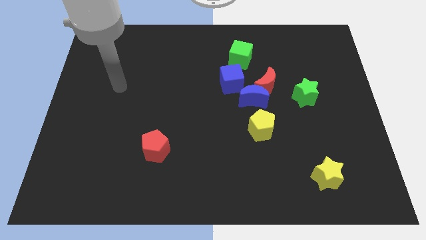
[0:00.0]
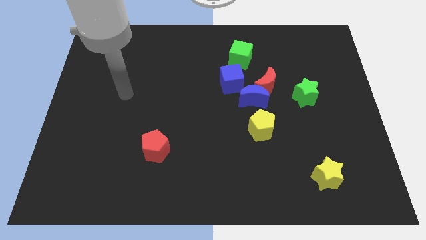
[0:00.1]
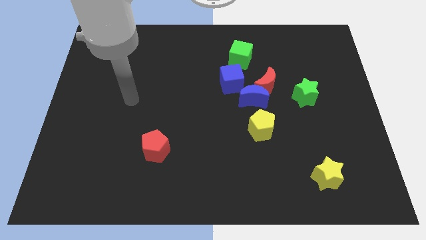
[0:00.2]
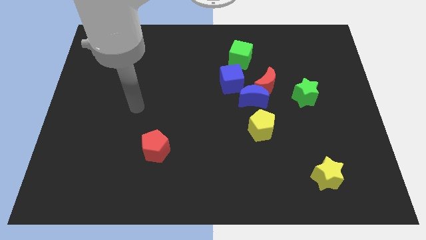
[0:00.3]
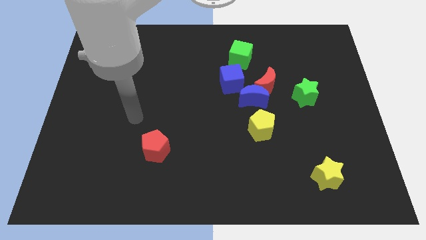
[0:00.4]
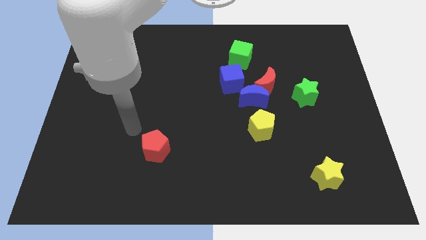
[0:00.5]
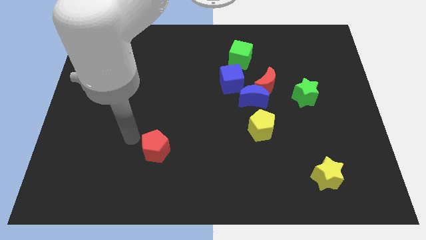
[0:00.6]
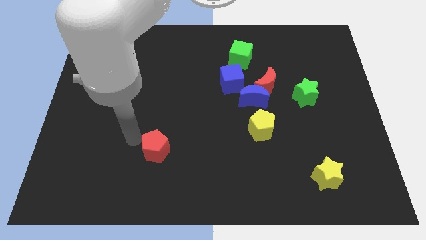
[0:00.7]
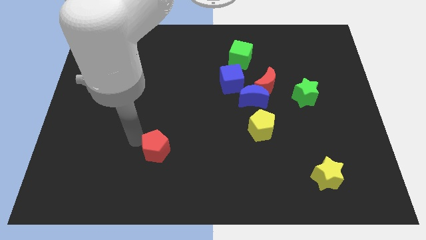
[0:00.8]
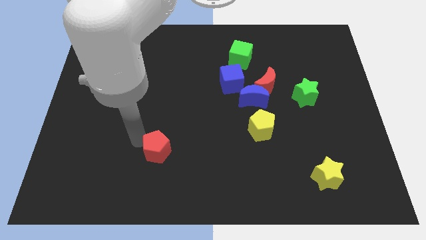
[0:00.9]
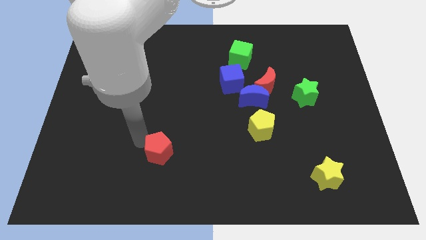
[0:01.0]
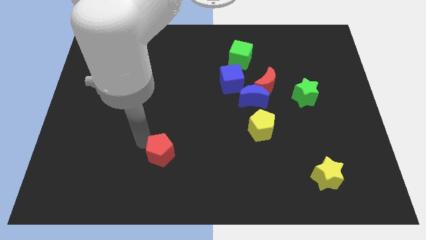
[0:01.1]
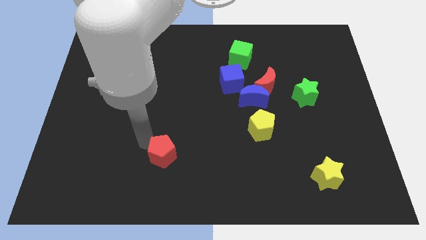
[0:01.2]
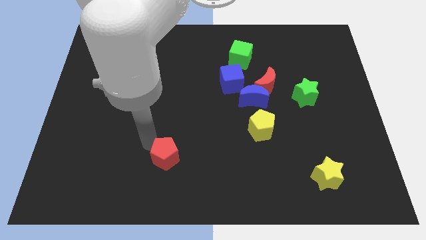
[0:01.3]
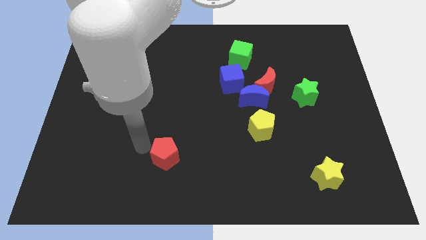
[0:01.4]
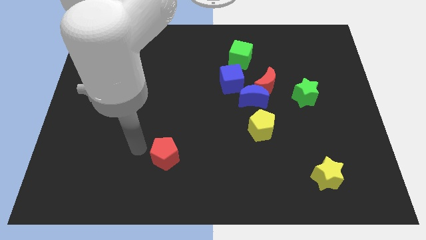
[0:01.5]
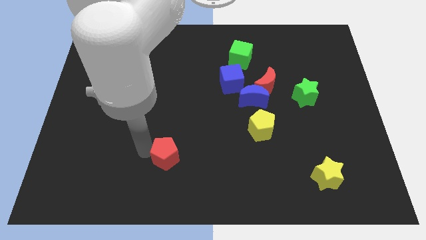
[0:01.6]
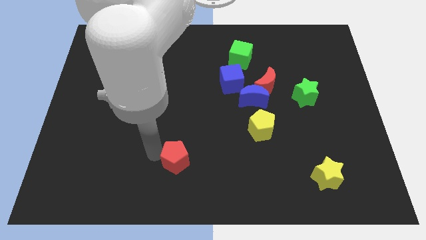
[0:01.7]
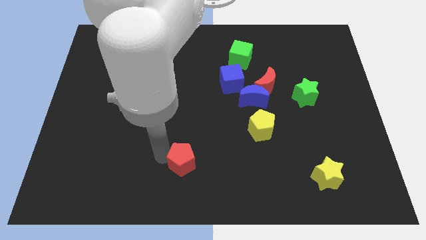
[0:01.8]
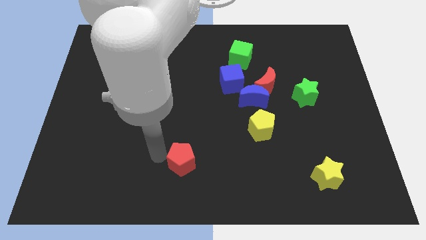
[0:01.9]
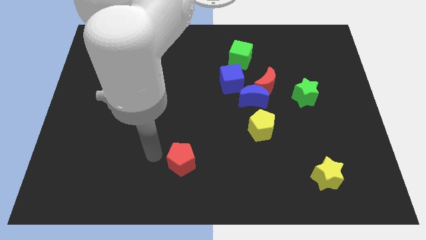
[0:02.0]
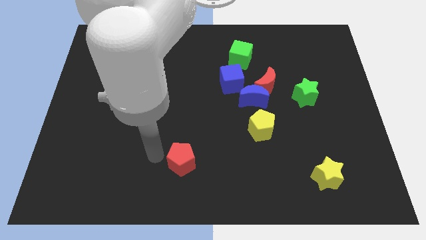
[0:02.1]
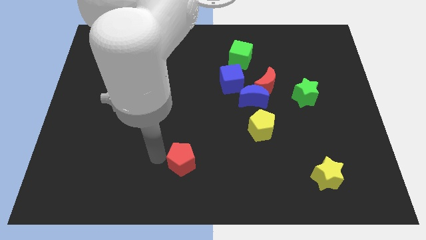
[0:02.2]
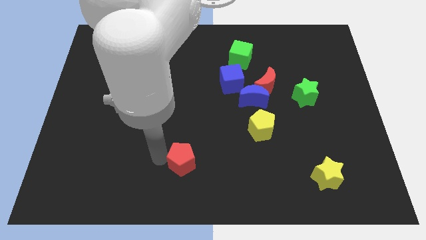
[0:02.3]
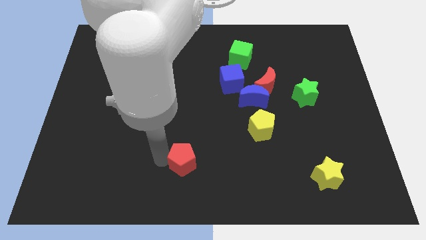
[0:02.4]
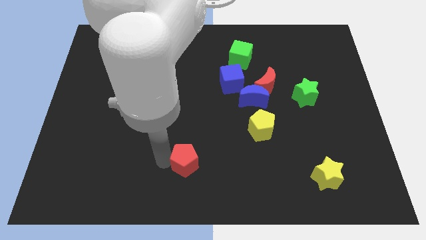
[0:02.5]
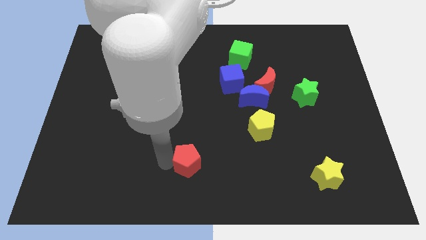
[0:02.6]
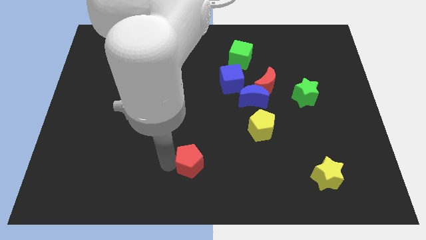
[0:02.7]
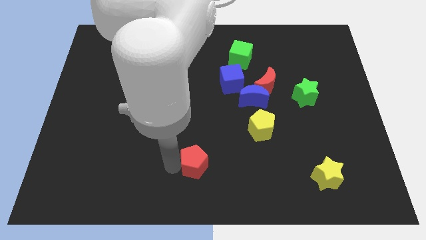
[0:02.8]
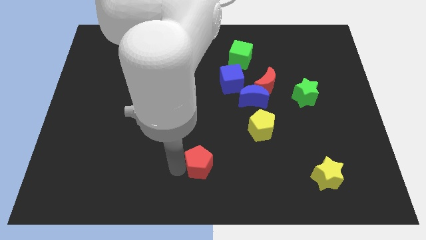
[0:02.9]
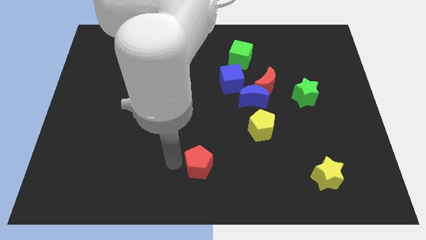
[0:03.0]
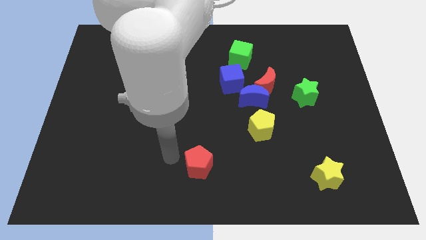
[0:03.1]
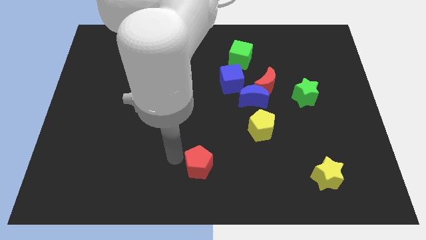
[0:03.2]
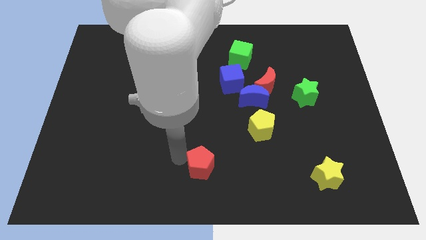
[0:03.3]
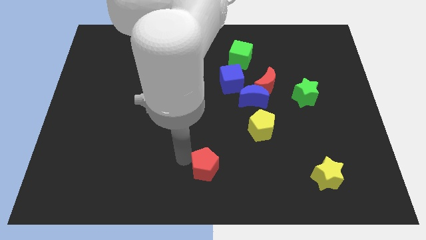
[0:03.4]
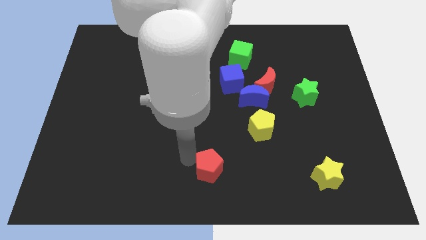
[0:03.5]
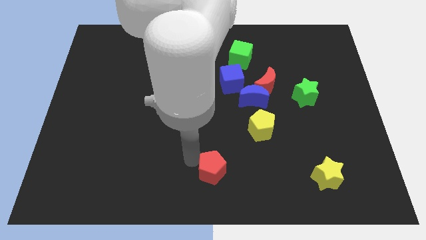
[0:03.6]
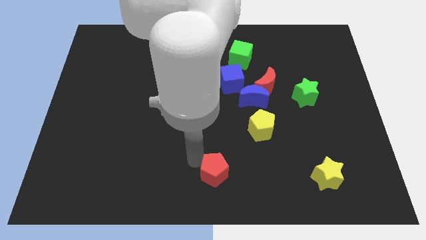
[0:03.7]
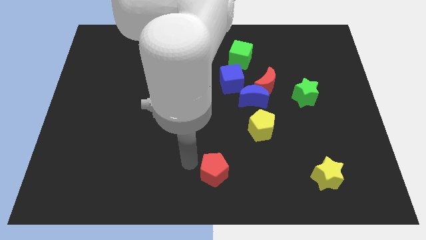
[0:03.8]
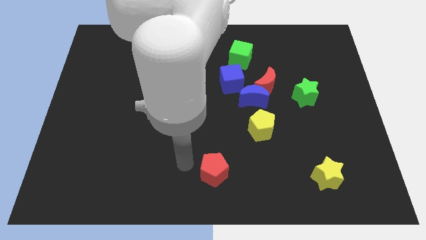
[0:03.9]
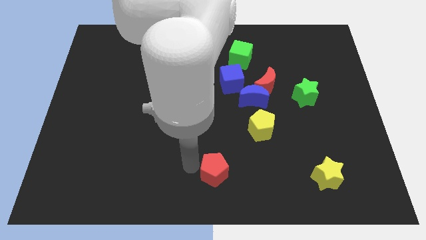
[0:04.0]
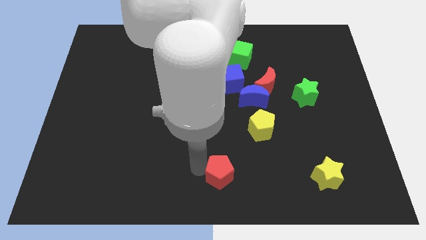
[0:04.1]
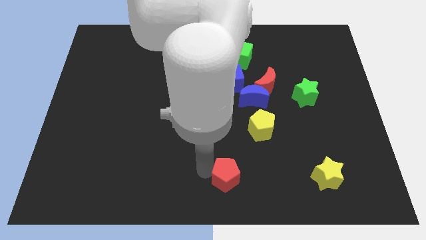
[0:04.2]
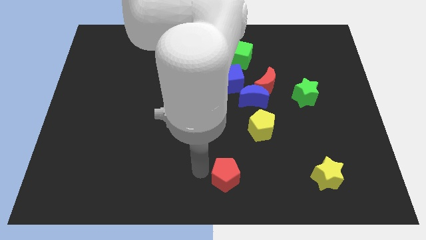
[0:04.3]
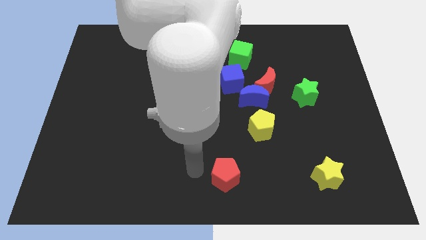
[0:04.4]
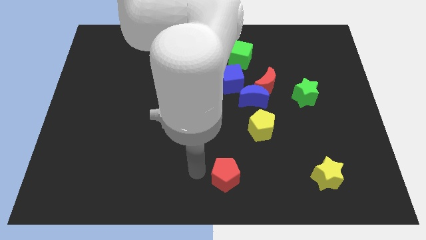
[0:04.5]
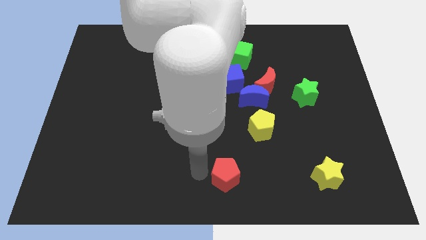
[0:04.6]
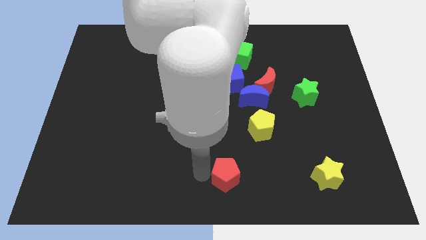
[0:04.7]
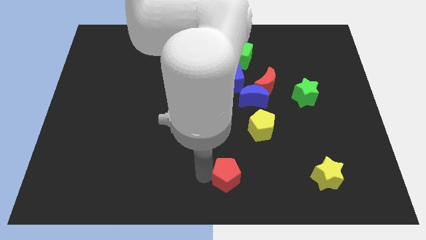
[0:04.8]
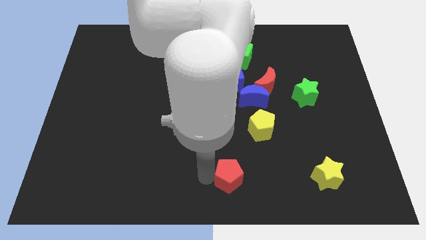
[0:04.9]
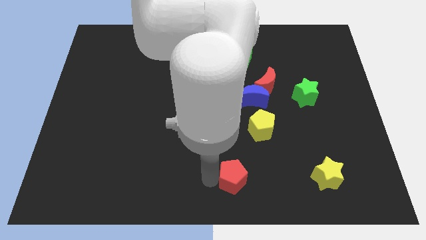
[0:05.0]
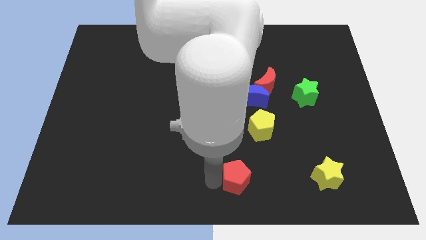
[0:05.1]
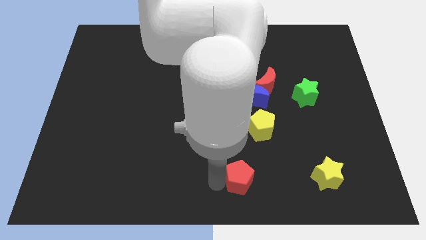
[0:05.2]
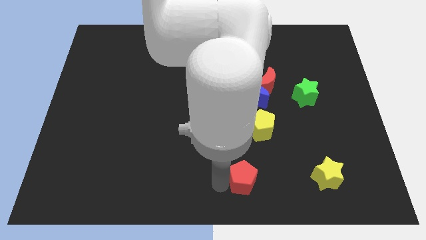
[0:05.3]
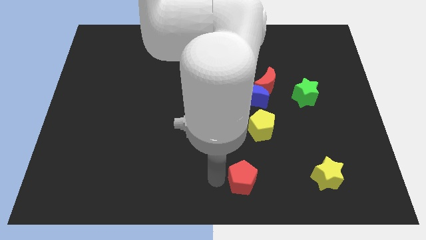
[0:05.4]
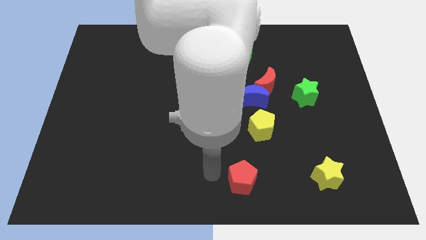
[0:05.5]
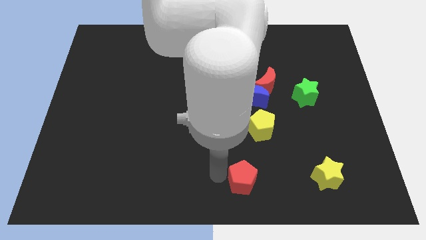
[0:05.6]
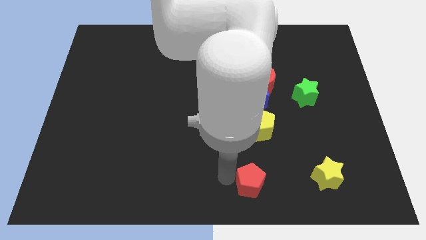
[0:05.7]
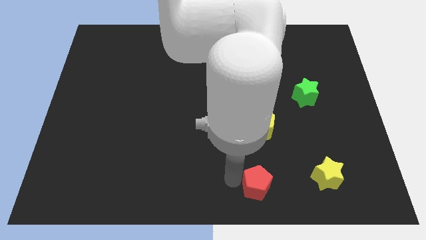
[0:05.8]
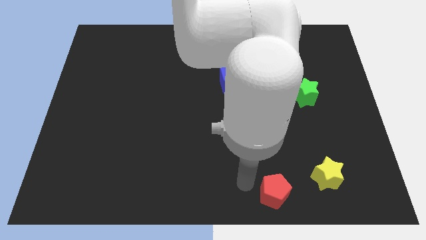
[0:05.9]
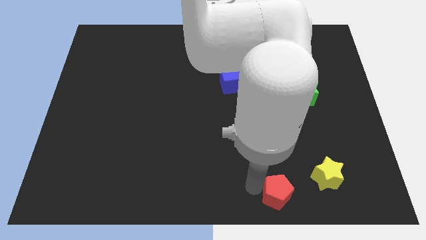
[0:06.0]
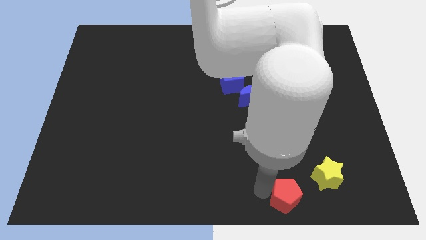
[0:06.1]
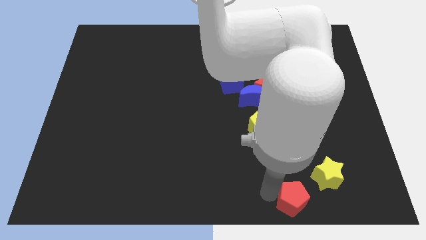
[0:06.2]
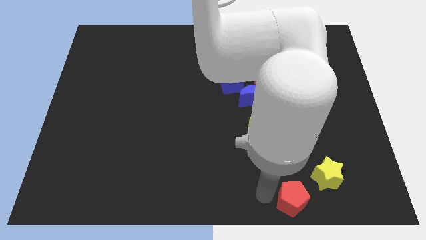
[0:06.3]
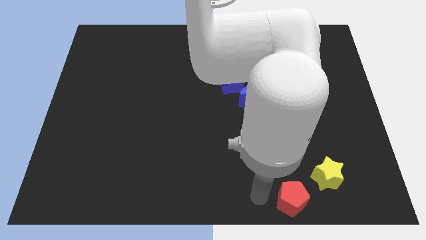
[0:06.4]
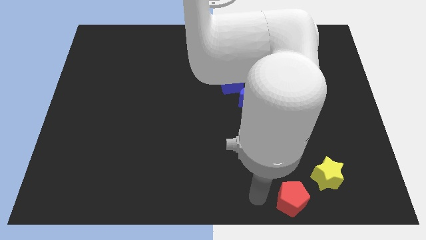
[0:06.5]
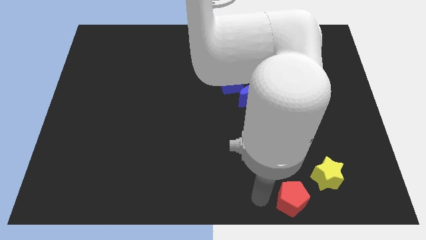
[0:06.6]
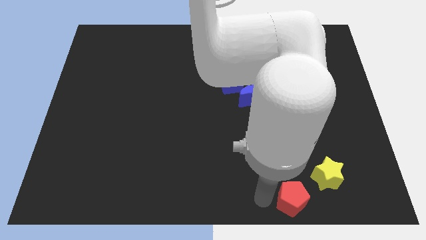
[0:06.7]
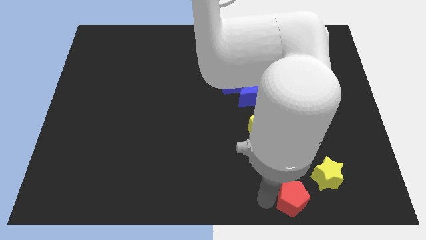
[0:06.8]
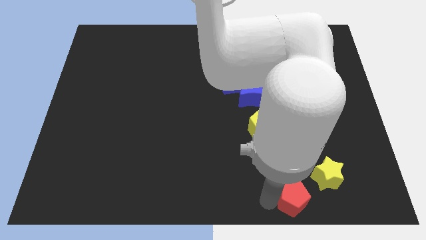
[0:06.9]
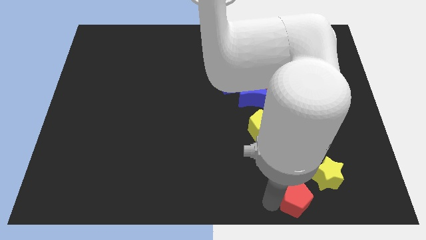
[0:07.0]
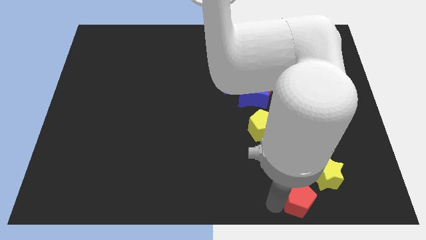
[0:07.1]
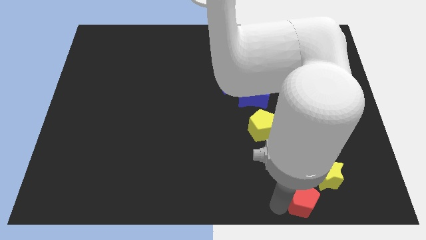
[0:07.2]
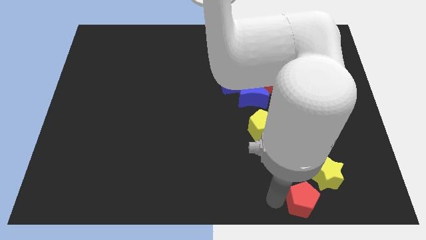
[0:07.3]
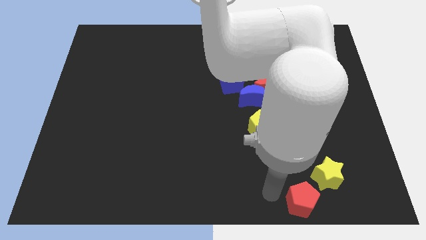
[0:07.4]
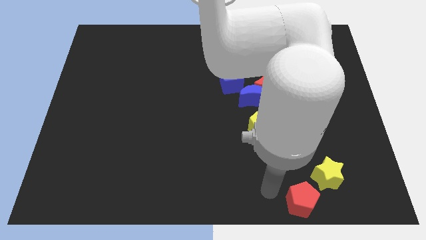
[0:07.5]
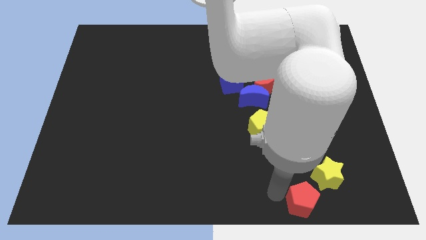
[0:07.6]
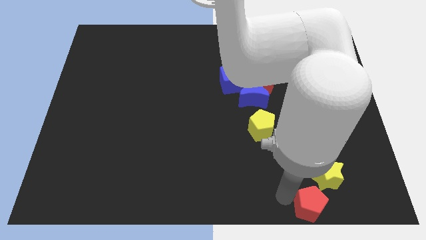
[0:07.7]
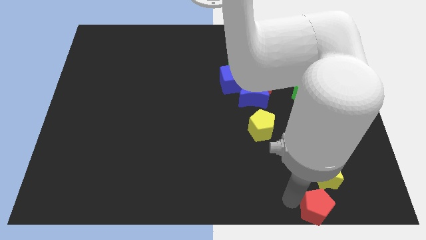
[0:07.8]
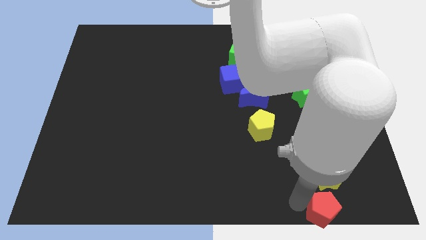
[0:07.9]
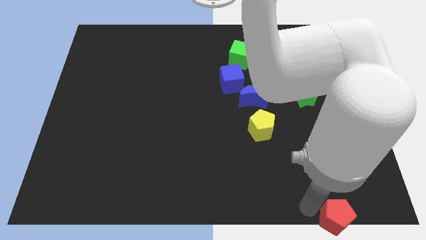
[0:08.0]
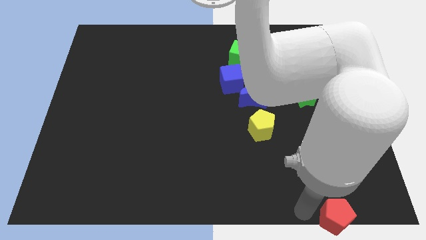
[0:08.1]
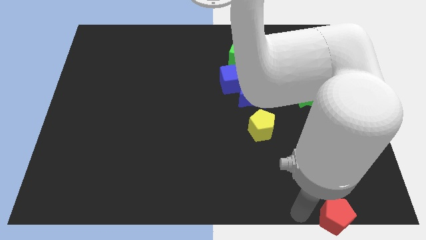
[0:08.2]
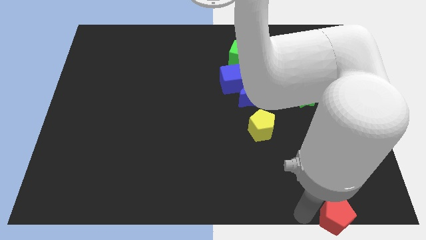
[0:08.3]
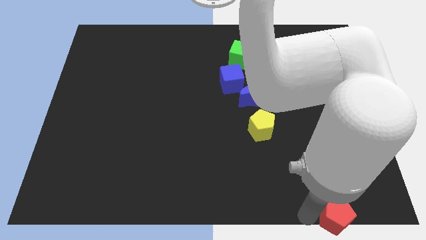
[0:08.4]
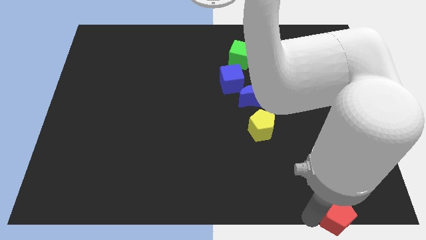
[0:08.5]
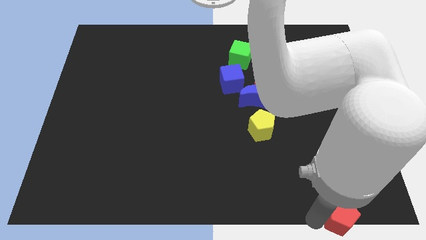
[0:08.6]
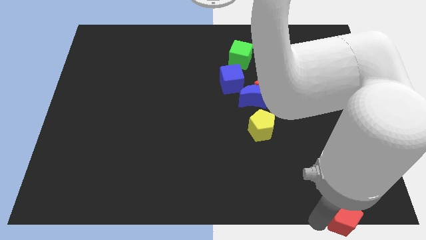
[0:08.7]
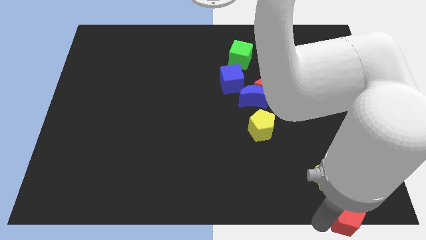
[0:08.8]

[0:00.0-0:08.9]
move the red pentagon to the bottom right of the board
